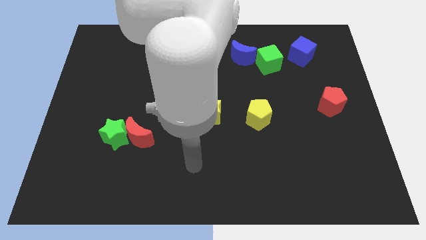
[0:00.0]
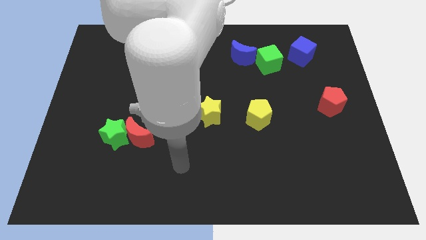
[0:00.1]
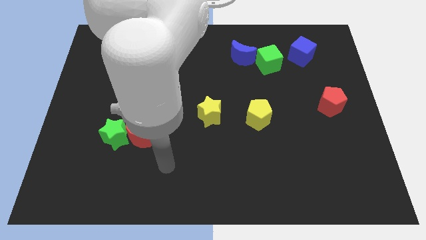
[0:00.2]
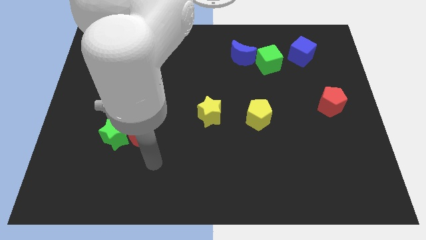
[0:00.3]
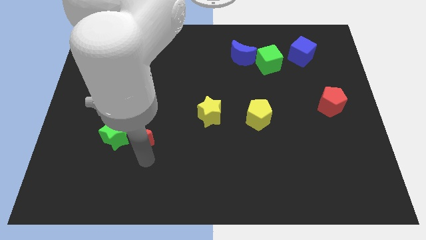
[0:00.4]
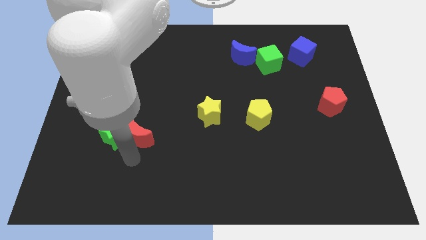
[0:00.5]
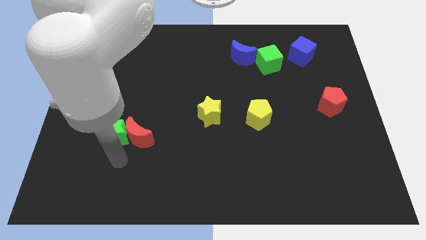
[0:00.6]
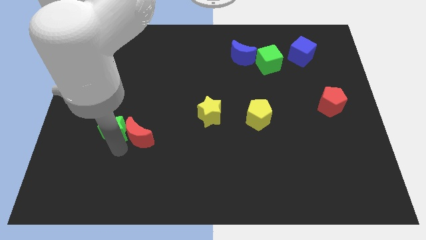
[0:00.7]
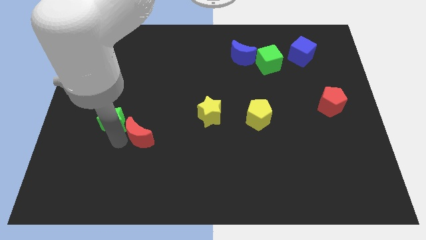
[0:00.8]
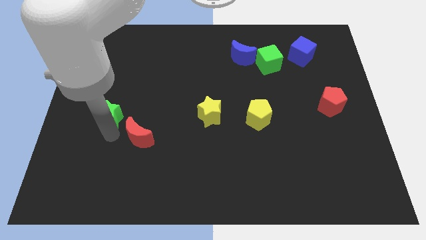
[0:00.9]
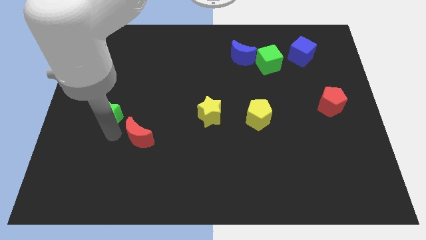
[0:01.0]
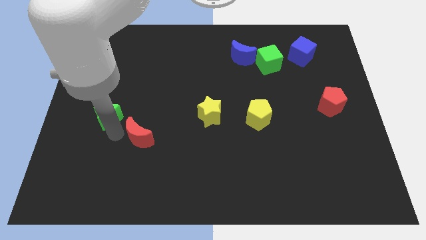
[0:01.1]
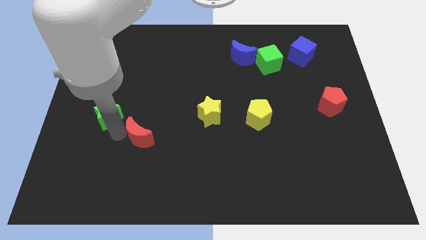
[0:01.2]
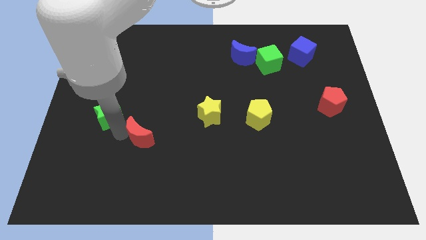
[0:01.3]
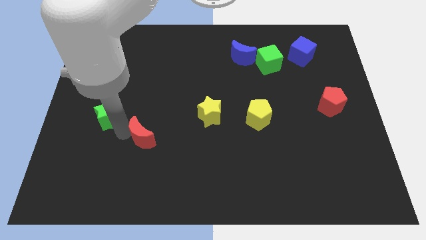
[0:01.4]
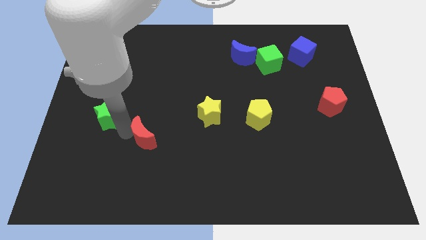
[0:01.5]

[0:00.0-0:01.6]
move the red moon away from the green star

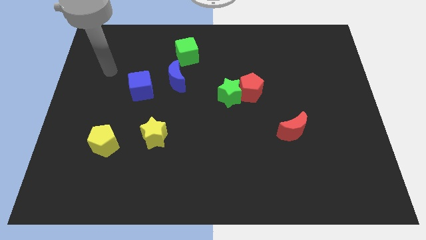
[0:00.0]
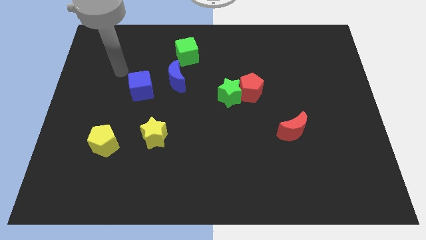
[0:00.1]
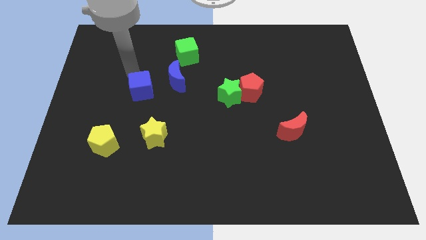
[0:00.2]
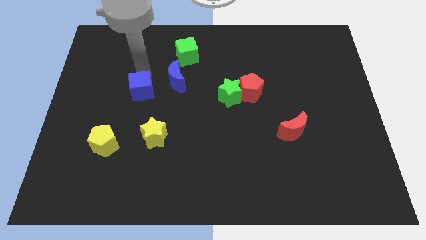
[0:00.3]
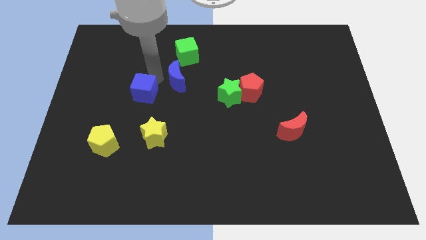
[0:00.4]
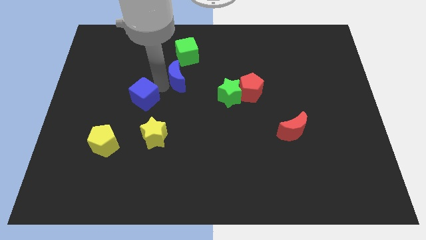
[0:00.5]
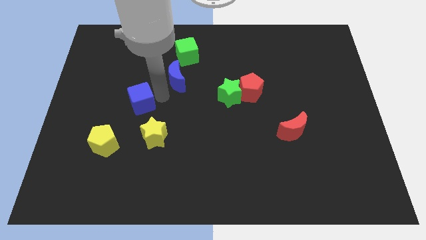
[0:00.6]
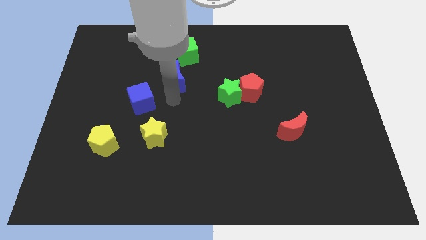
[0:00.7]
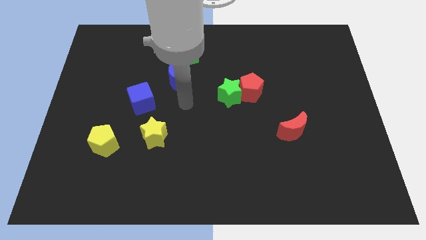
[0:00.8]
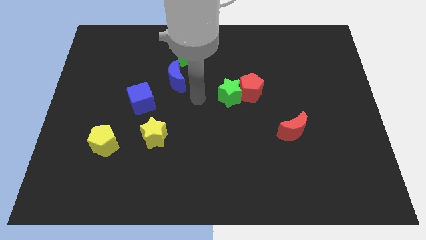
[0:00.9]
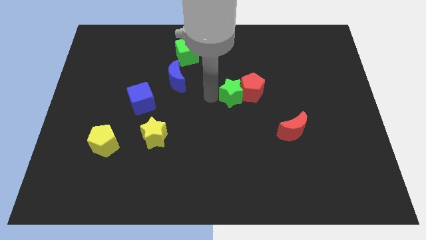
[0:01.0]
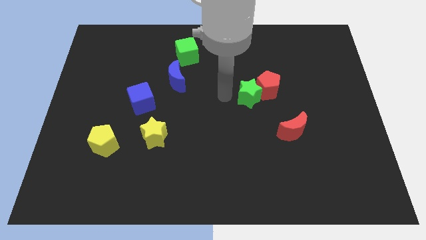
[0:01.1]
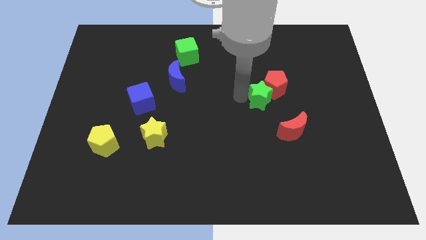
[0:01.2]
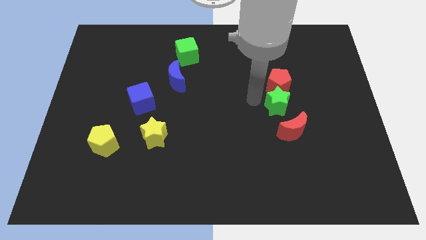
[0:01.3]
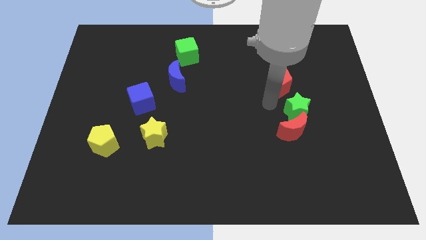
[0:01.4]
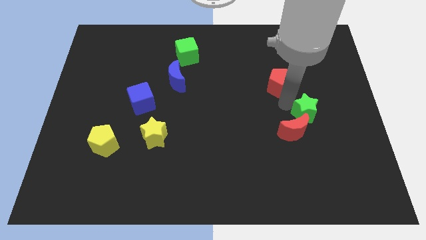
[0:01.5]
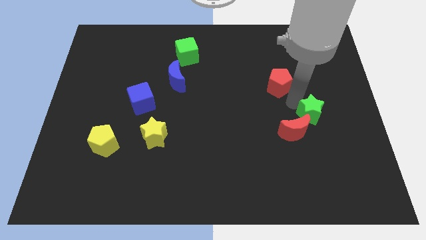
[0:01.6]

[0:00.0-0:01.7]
pull the red pentagon apart from the green star

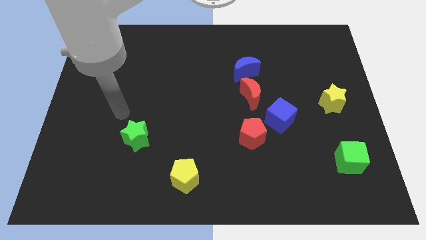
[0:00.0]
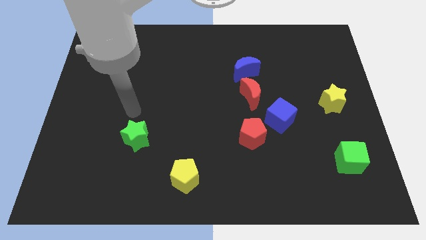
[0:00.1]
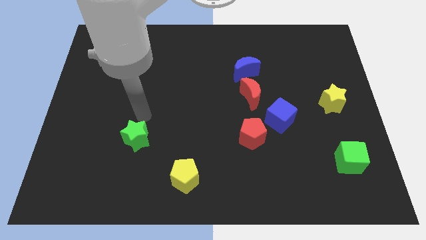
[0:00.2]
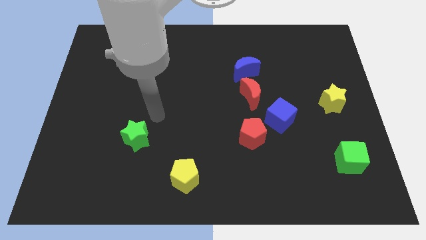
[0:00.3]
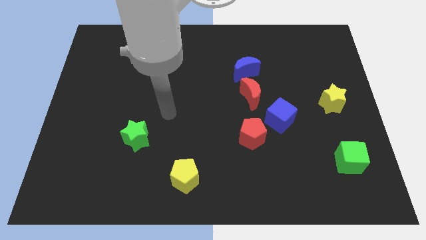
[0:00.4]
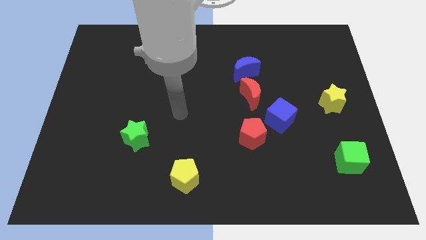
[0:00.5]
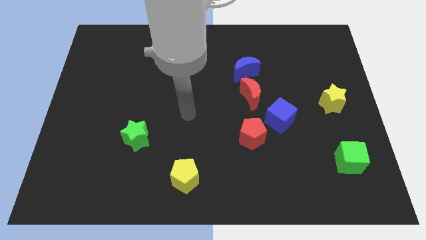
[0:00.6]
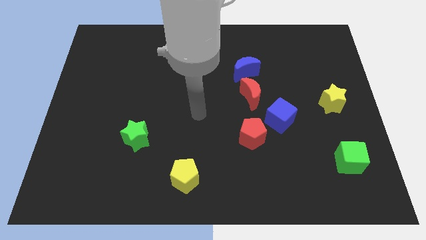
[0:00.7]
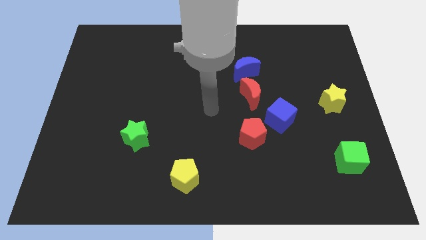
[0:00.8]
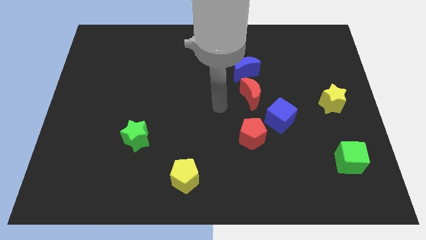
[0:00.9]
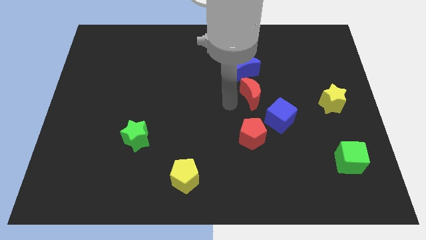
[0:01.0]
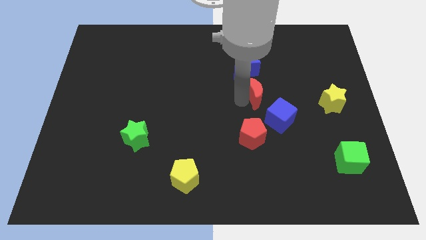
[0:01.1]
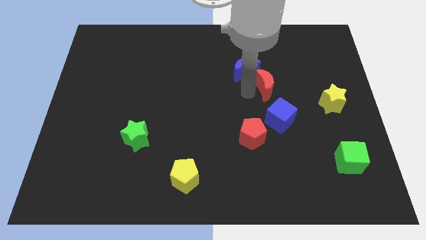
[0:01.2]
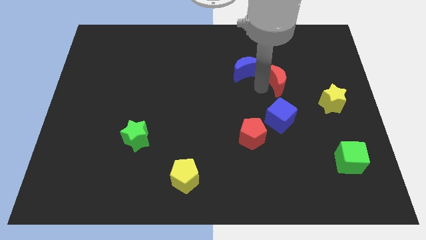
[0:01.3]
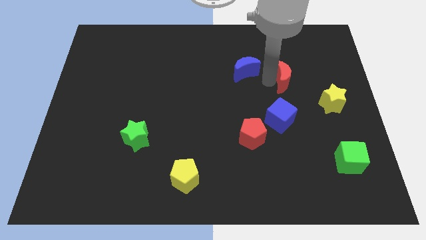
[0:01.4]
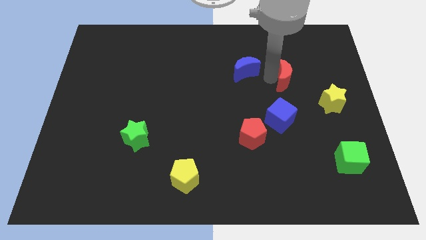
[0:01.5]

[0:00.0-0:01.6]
move the blue moon away from the red moon

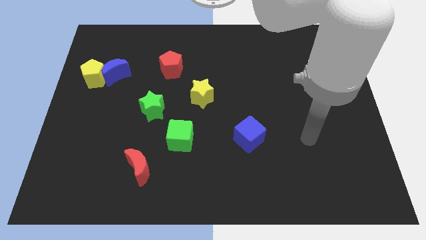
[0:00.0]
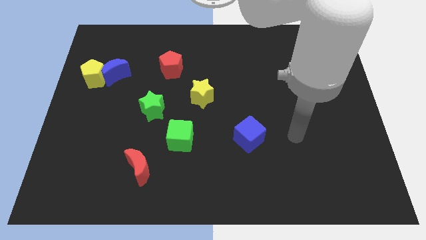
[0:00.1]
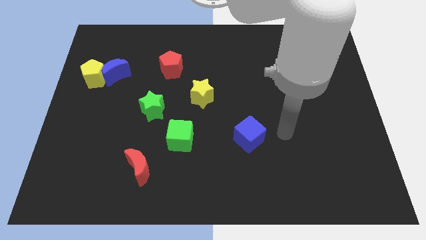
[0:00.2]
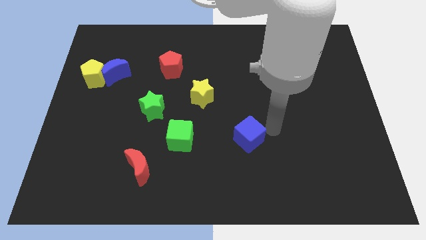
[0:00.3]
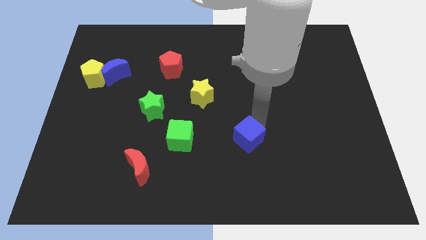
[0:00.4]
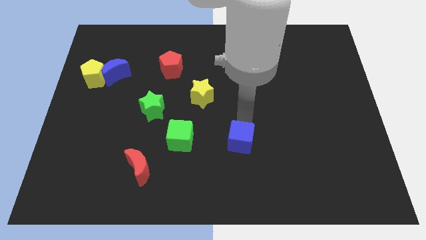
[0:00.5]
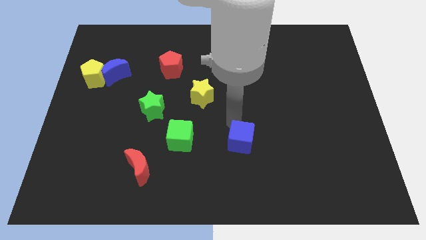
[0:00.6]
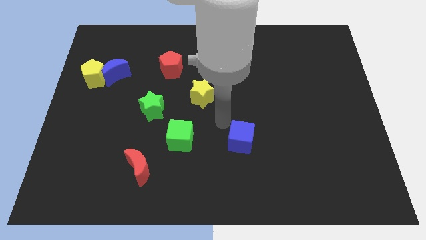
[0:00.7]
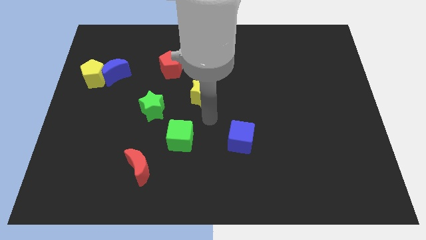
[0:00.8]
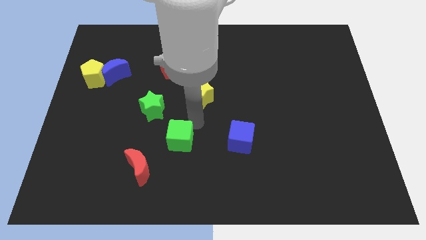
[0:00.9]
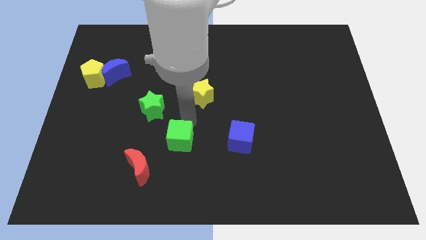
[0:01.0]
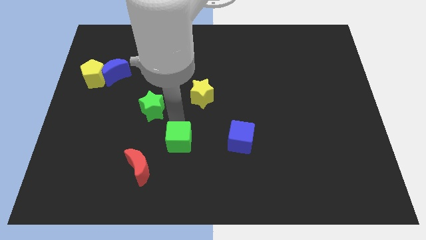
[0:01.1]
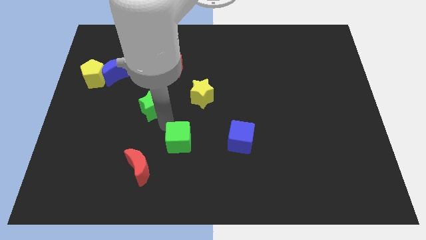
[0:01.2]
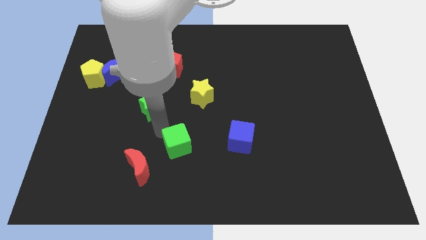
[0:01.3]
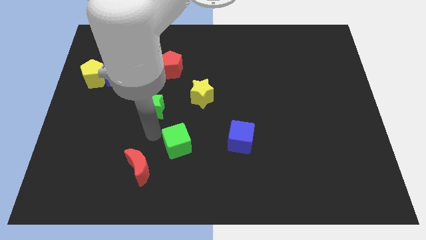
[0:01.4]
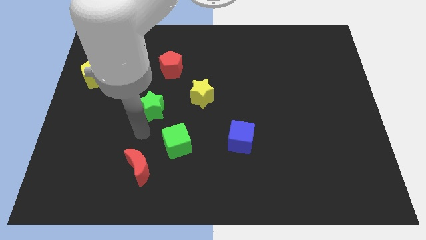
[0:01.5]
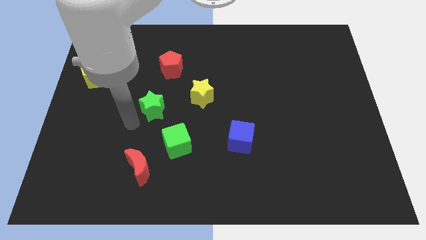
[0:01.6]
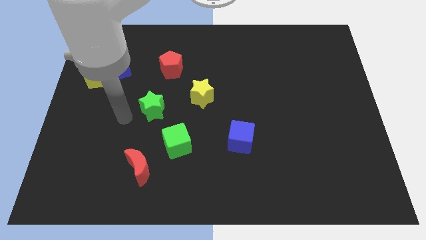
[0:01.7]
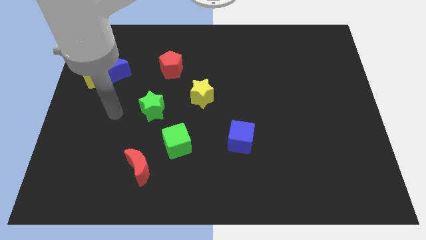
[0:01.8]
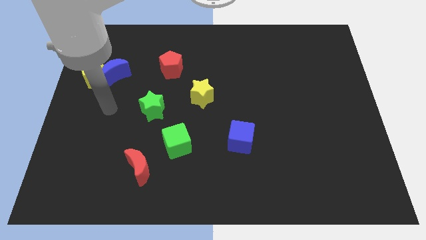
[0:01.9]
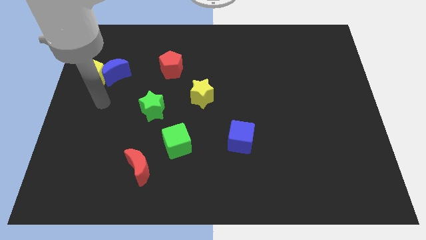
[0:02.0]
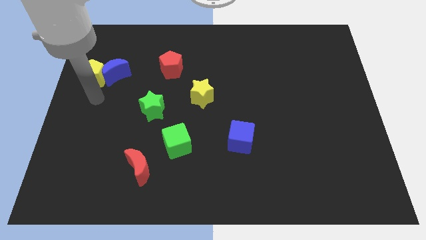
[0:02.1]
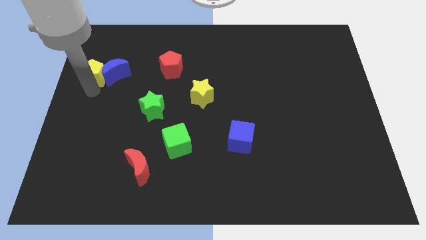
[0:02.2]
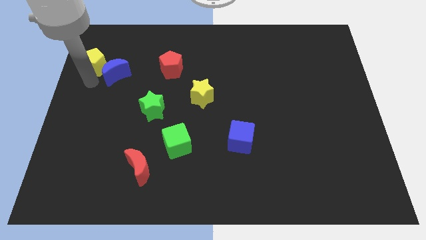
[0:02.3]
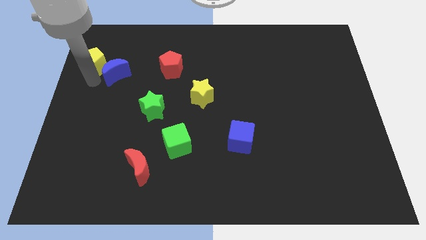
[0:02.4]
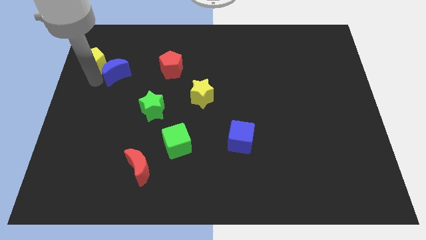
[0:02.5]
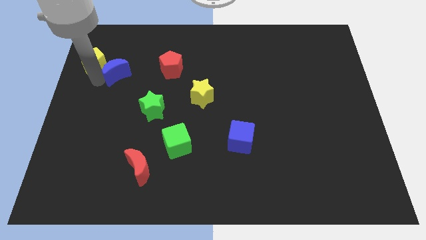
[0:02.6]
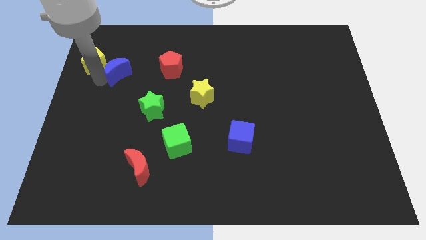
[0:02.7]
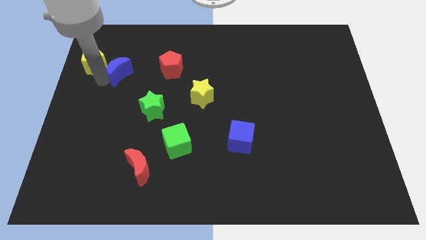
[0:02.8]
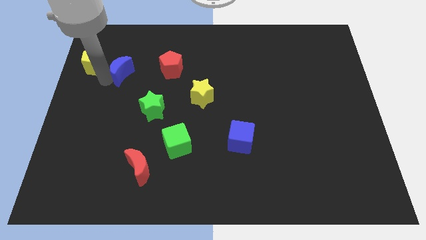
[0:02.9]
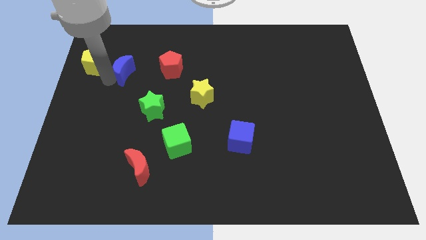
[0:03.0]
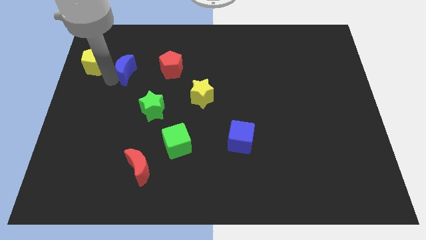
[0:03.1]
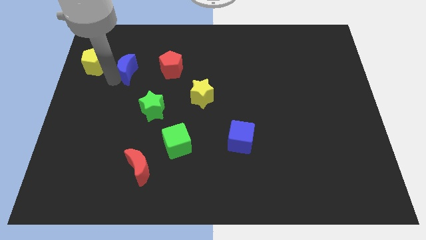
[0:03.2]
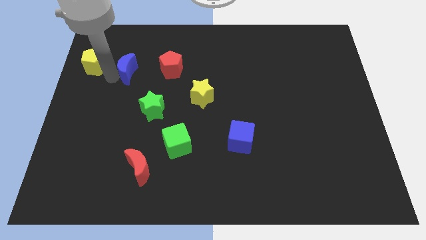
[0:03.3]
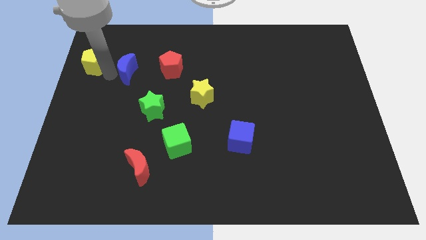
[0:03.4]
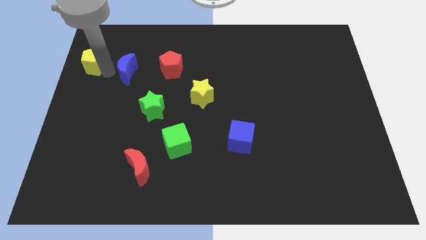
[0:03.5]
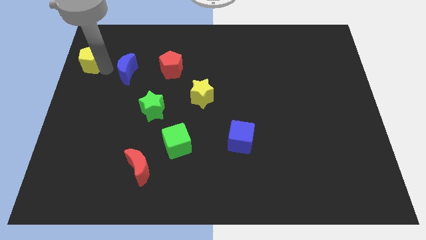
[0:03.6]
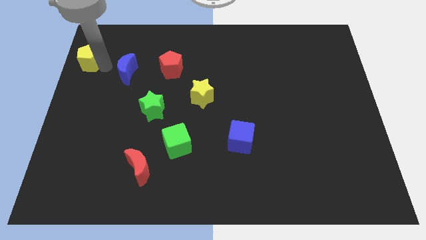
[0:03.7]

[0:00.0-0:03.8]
move the blue moon away from the yellow pentagon

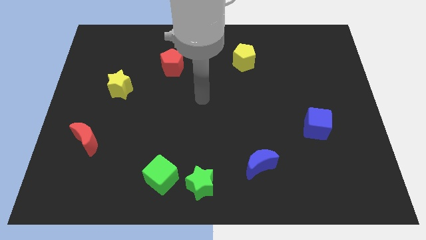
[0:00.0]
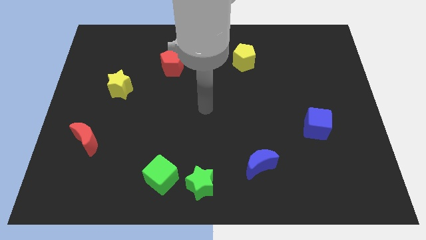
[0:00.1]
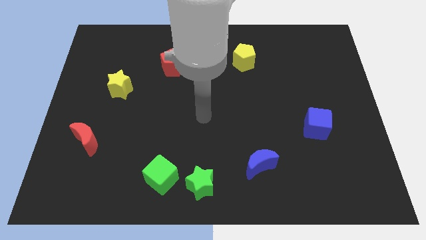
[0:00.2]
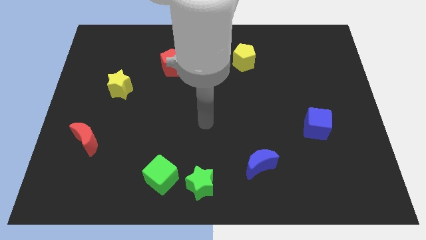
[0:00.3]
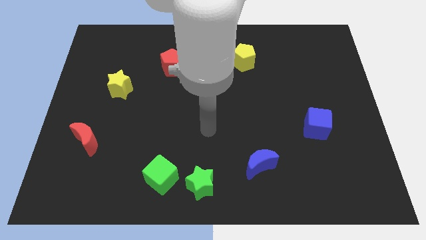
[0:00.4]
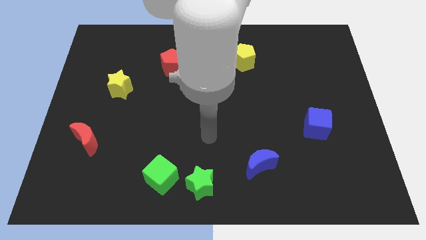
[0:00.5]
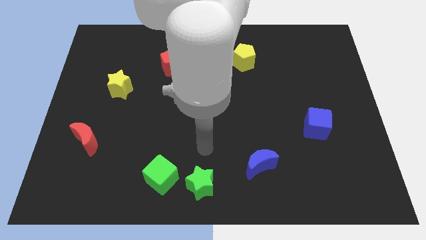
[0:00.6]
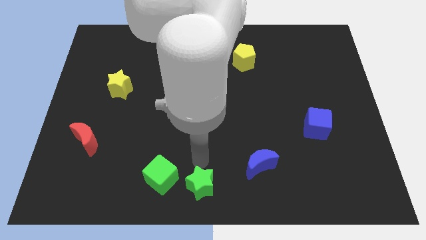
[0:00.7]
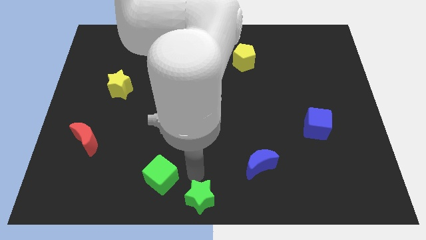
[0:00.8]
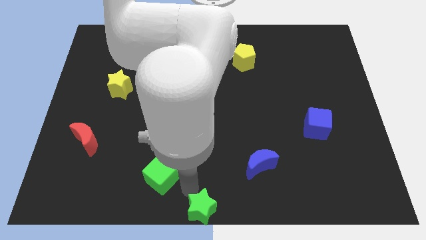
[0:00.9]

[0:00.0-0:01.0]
separate the green cube from the green star
